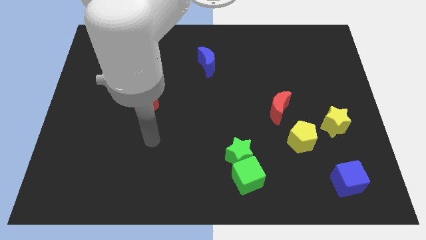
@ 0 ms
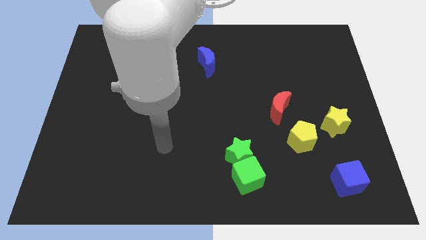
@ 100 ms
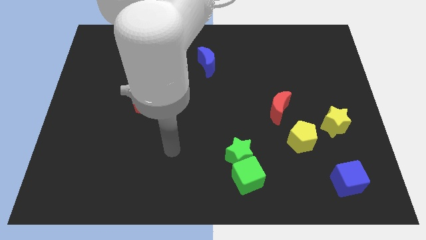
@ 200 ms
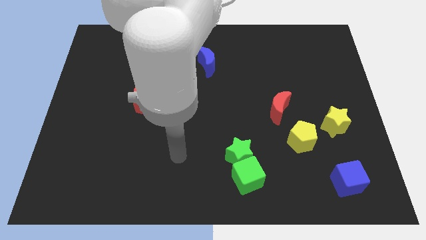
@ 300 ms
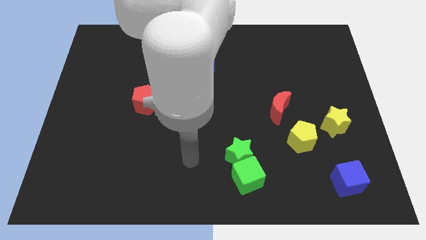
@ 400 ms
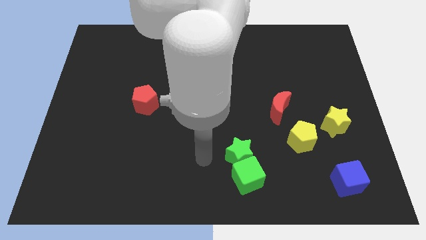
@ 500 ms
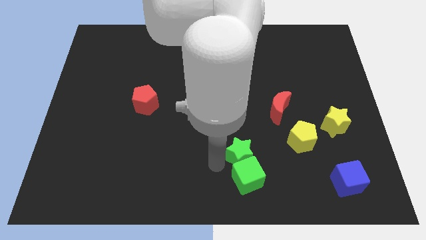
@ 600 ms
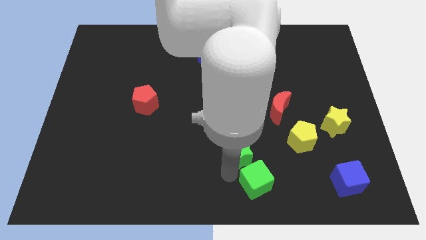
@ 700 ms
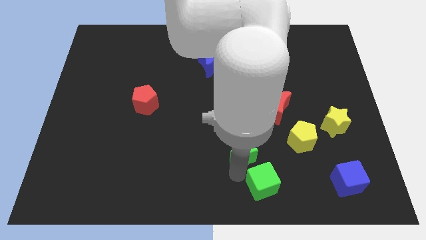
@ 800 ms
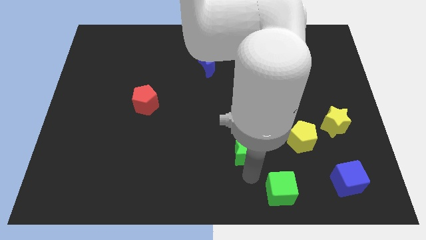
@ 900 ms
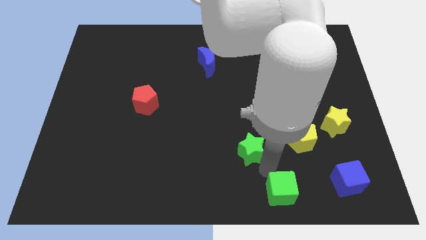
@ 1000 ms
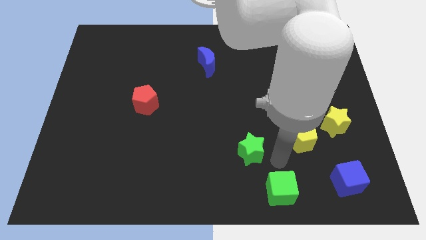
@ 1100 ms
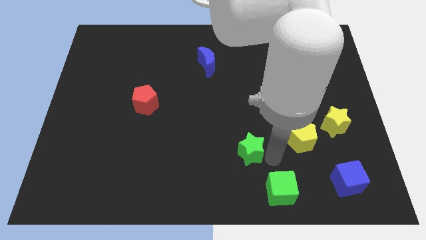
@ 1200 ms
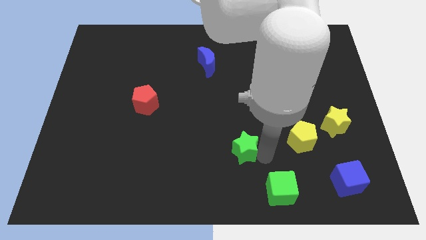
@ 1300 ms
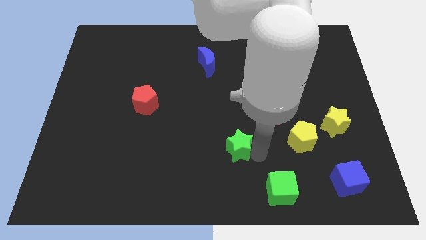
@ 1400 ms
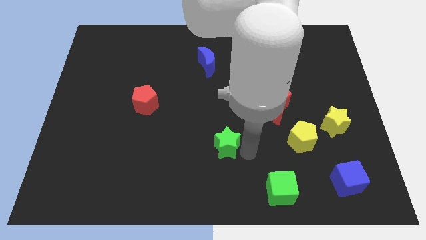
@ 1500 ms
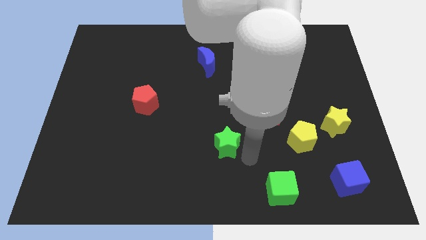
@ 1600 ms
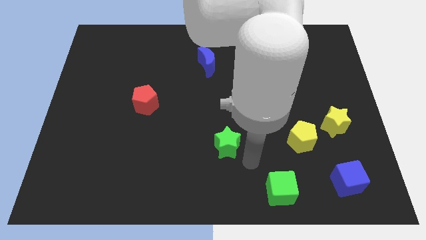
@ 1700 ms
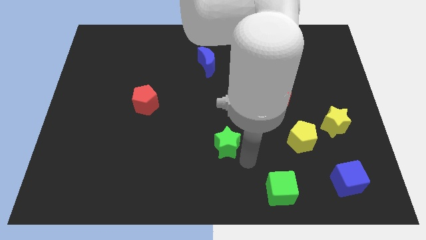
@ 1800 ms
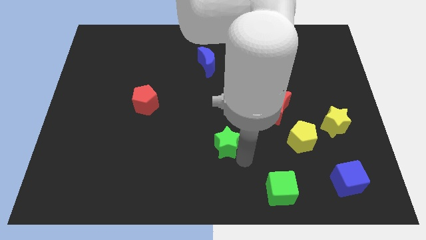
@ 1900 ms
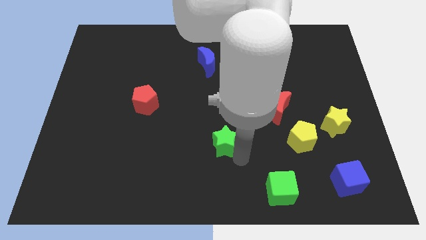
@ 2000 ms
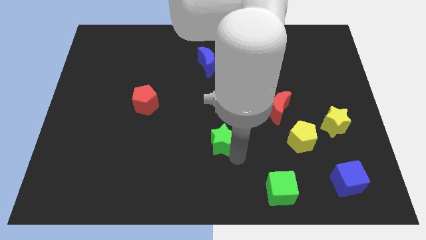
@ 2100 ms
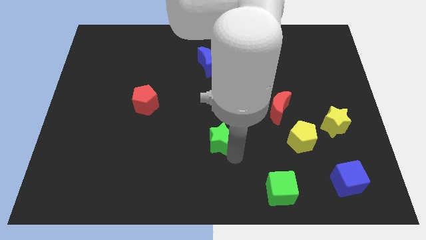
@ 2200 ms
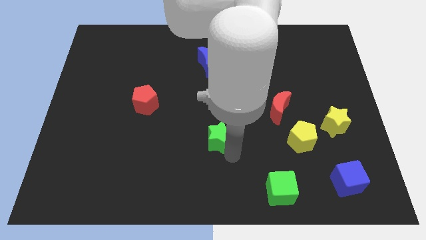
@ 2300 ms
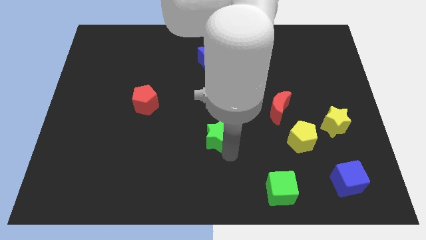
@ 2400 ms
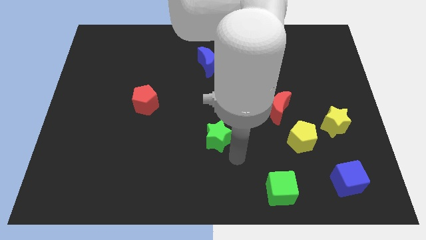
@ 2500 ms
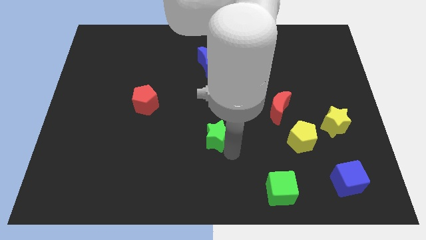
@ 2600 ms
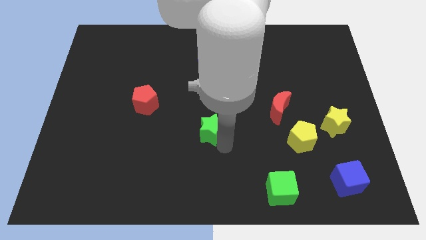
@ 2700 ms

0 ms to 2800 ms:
push the green star upwards and left diagonally slightly

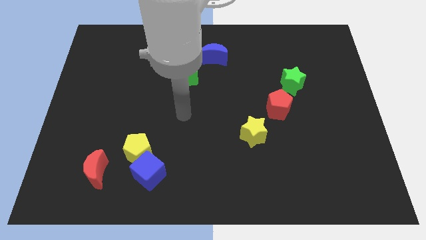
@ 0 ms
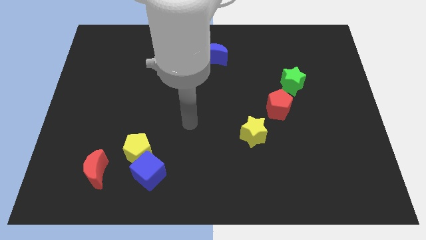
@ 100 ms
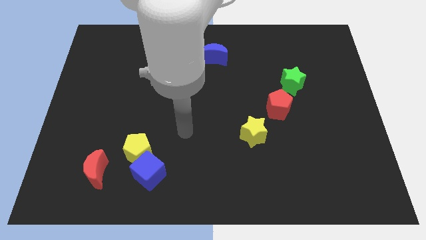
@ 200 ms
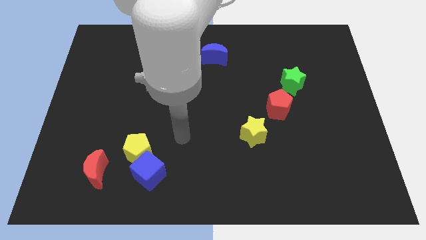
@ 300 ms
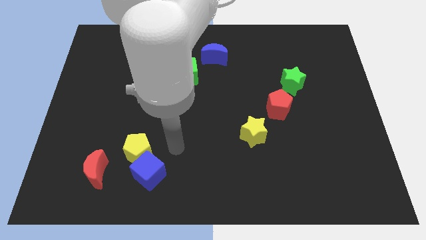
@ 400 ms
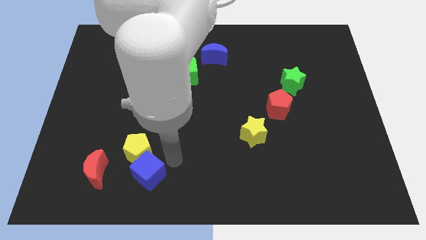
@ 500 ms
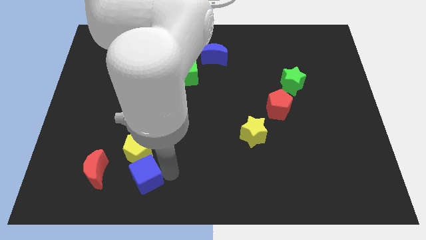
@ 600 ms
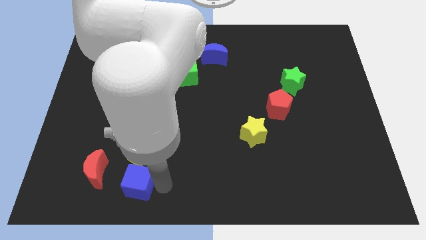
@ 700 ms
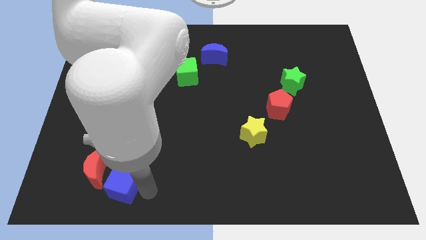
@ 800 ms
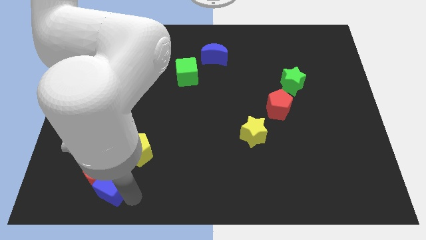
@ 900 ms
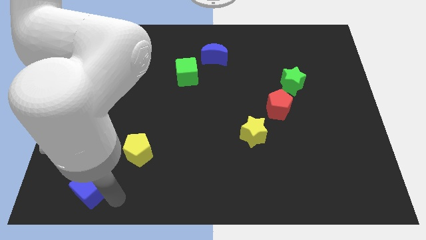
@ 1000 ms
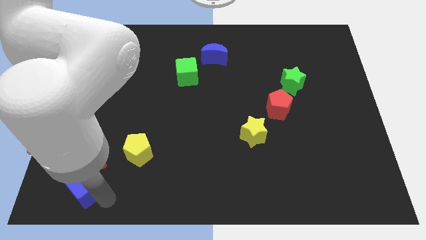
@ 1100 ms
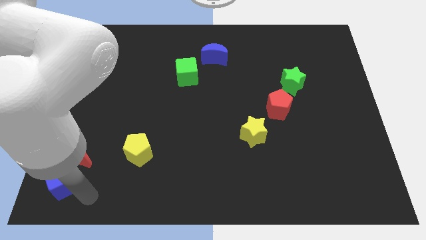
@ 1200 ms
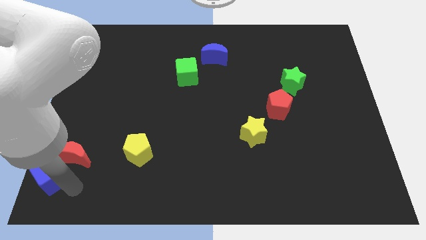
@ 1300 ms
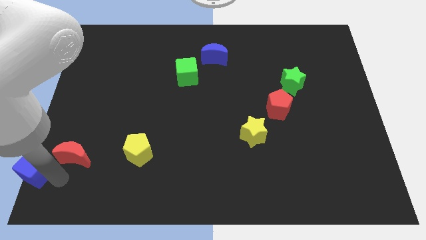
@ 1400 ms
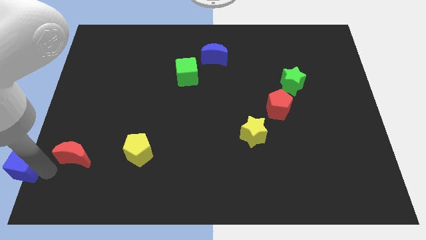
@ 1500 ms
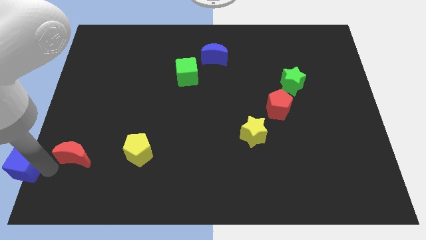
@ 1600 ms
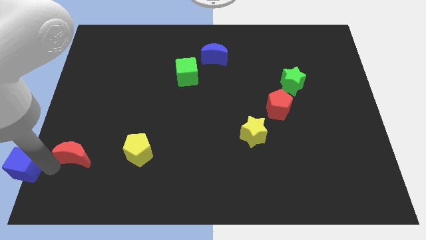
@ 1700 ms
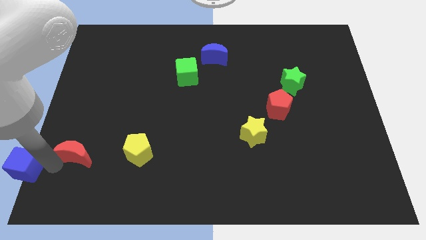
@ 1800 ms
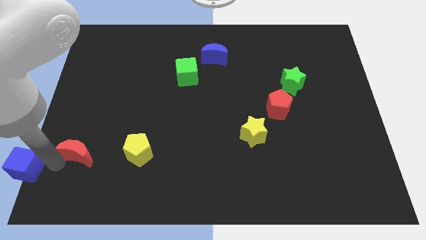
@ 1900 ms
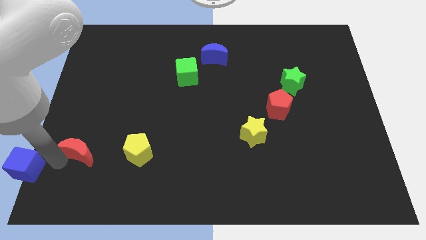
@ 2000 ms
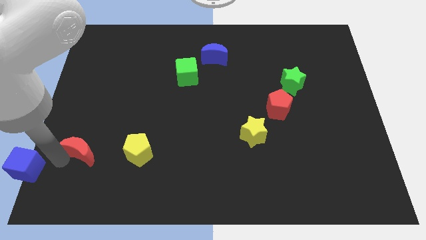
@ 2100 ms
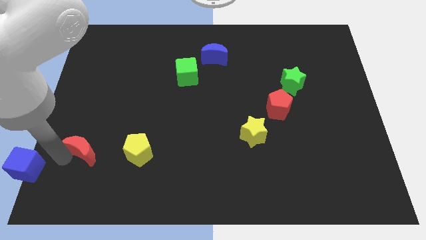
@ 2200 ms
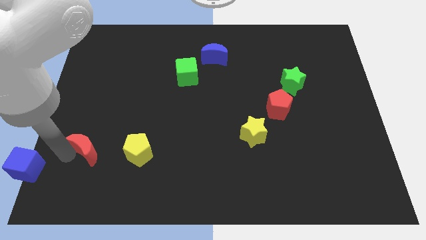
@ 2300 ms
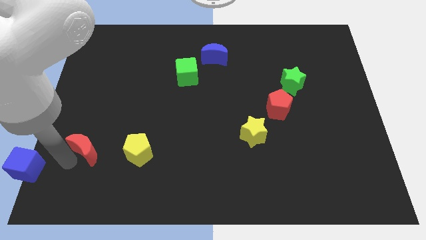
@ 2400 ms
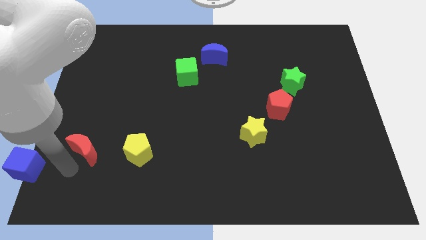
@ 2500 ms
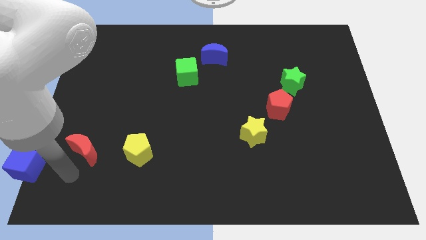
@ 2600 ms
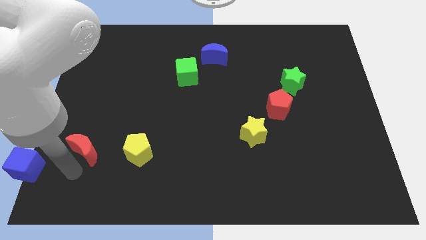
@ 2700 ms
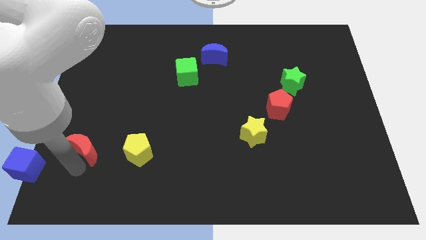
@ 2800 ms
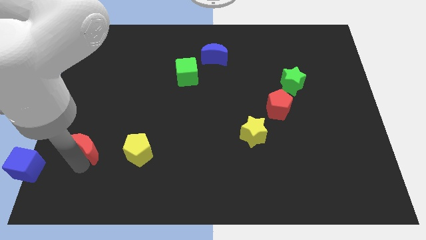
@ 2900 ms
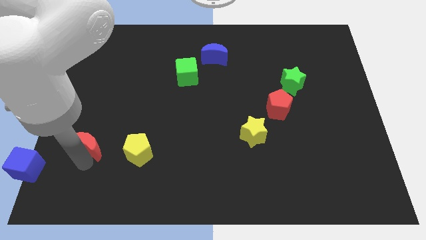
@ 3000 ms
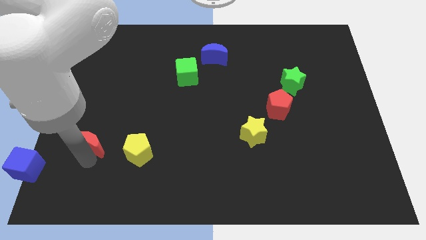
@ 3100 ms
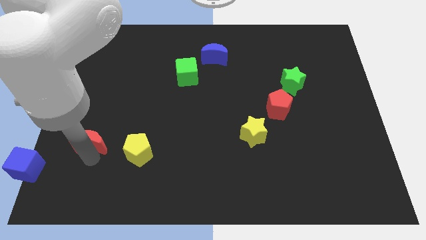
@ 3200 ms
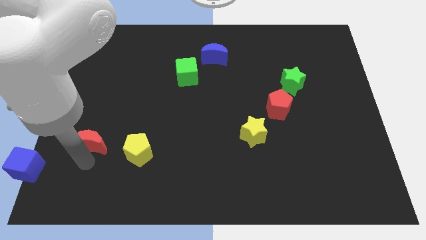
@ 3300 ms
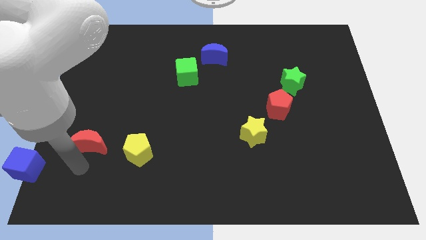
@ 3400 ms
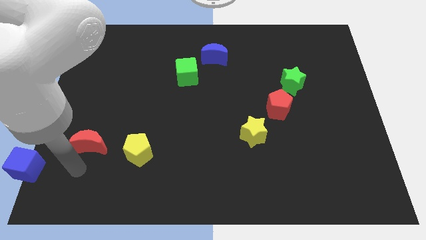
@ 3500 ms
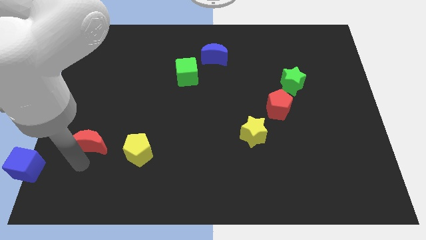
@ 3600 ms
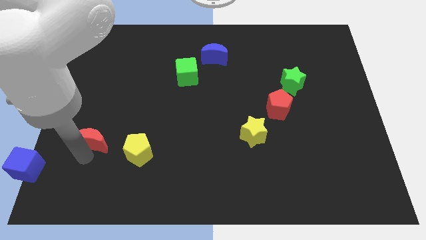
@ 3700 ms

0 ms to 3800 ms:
move the red moon up somewhat

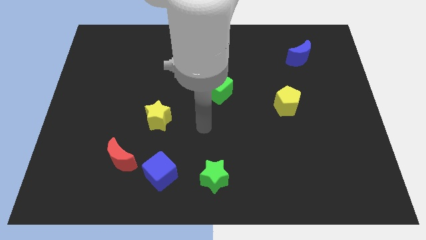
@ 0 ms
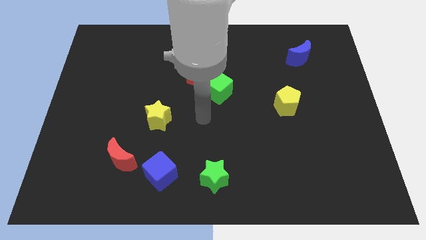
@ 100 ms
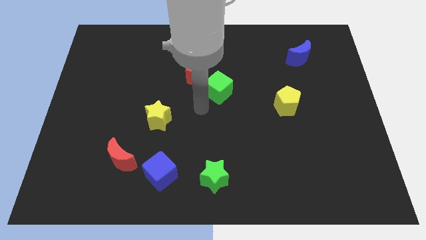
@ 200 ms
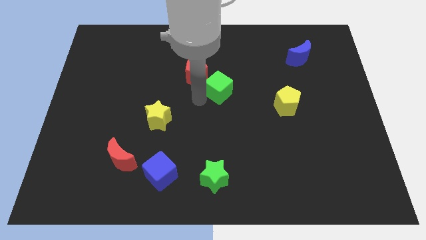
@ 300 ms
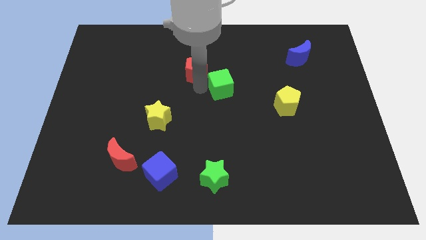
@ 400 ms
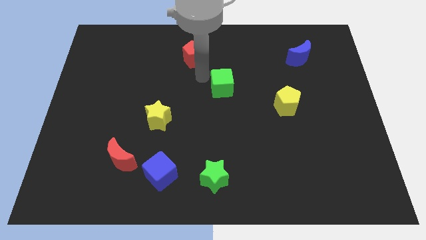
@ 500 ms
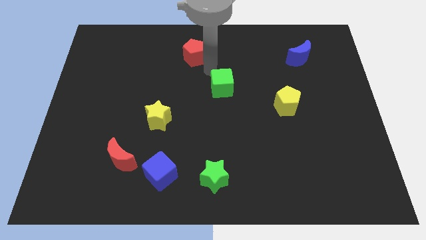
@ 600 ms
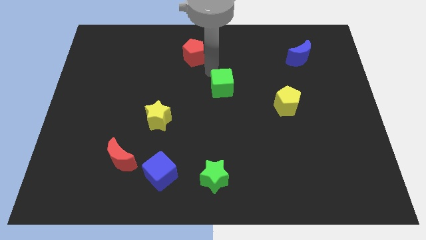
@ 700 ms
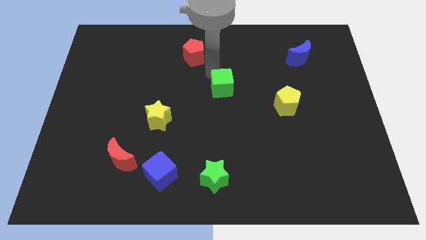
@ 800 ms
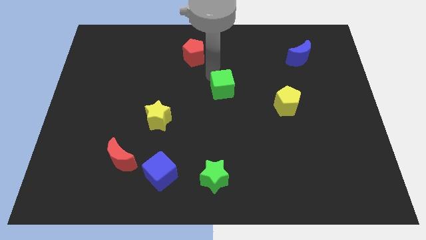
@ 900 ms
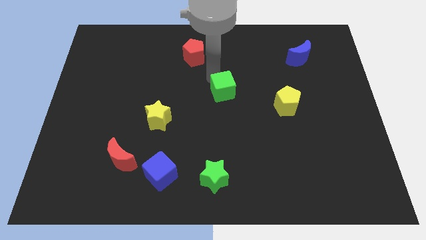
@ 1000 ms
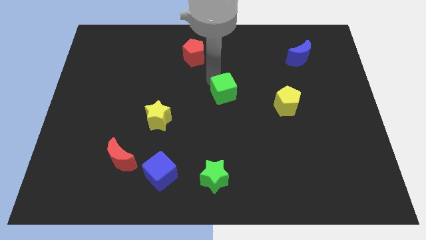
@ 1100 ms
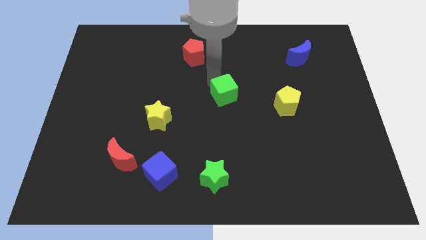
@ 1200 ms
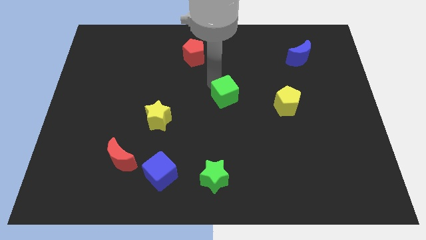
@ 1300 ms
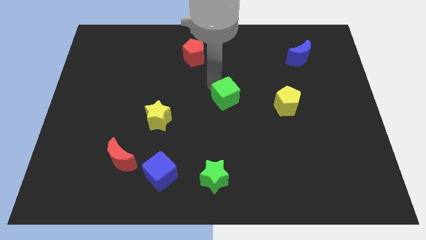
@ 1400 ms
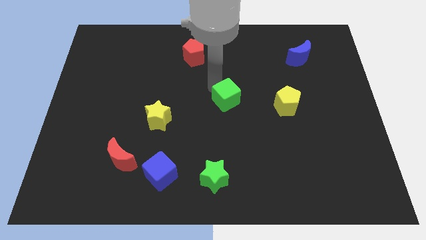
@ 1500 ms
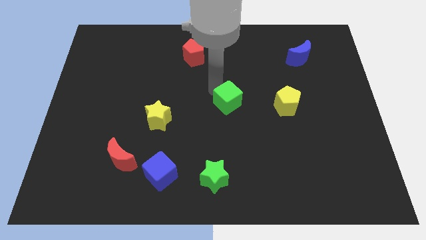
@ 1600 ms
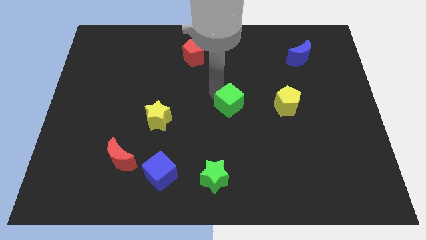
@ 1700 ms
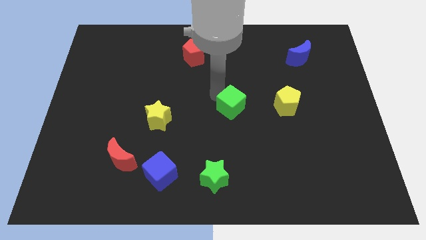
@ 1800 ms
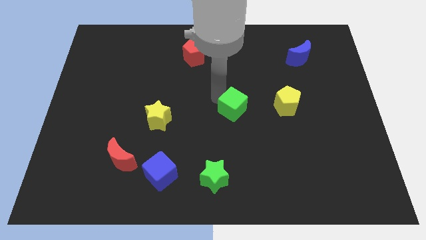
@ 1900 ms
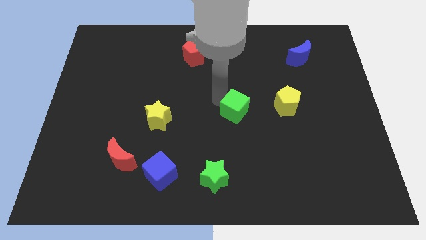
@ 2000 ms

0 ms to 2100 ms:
slightly push the green cube downwards and right
